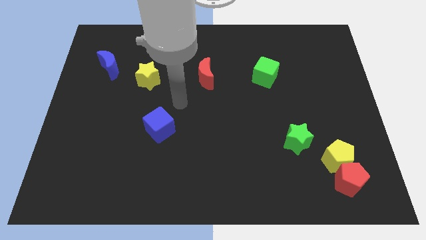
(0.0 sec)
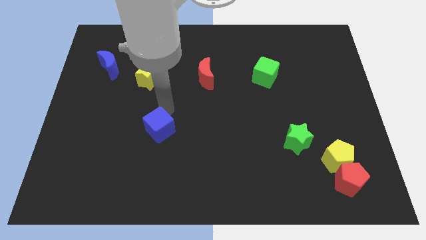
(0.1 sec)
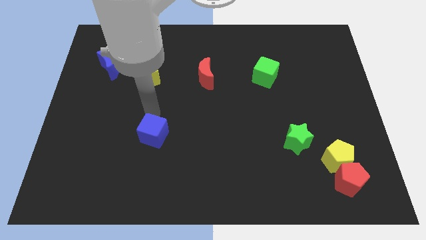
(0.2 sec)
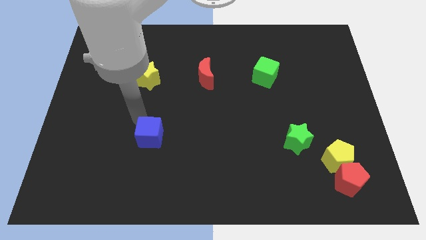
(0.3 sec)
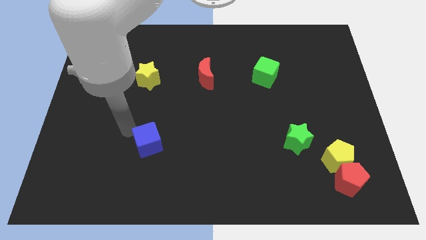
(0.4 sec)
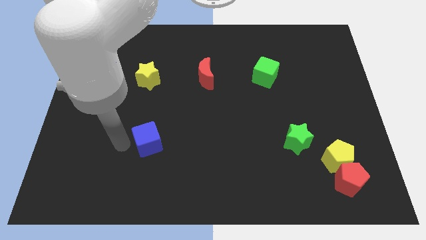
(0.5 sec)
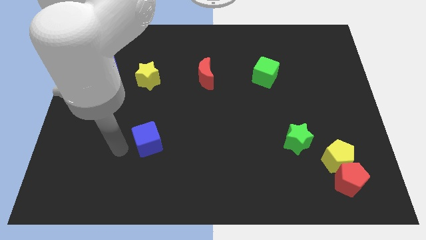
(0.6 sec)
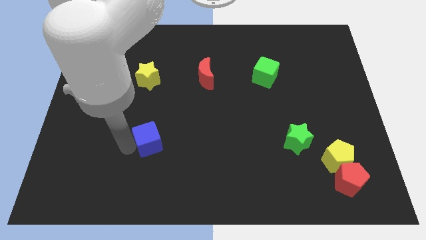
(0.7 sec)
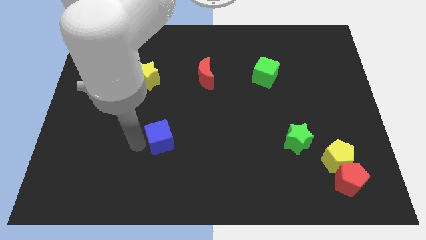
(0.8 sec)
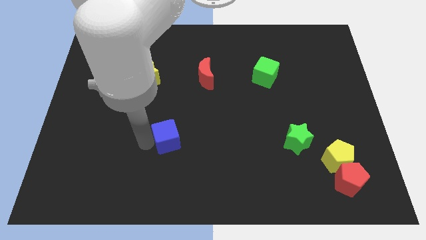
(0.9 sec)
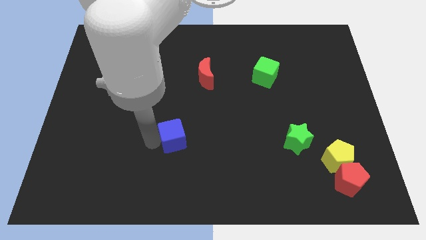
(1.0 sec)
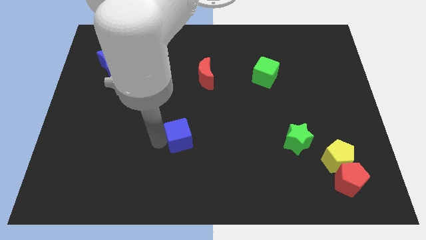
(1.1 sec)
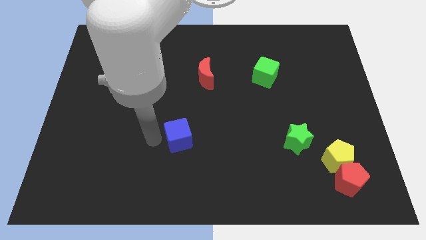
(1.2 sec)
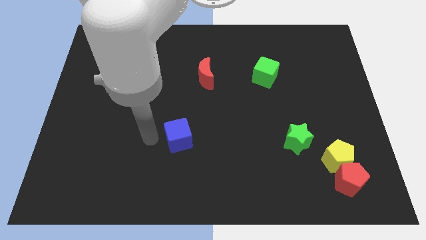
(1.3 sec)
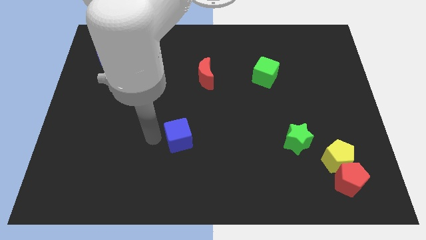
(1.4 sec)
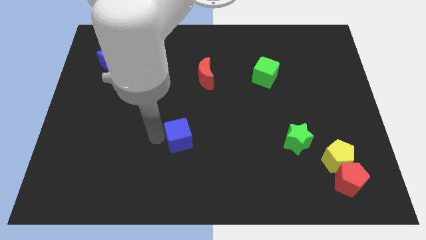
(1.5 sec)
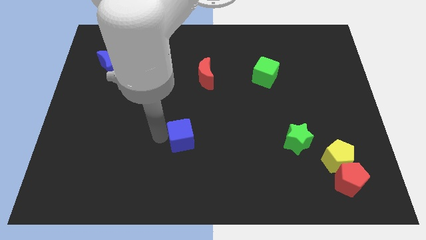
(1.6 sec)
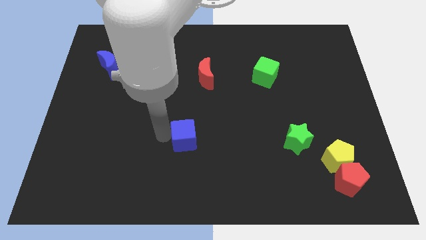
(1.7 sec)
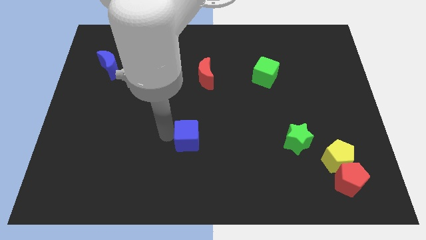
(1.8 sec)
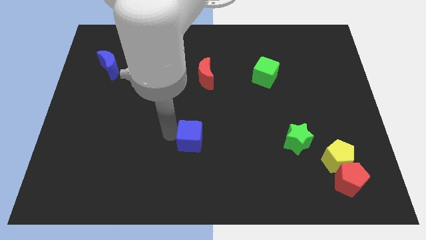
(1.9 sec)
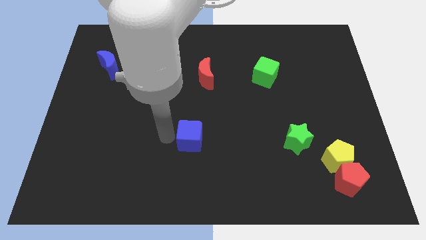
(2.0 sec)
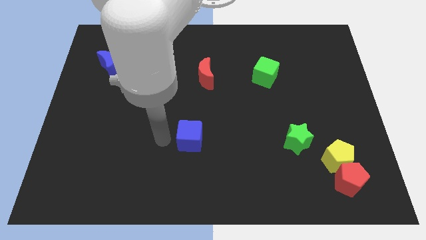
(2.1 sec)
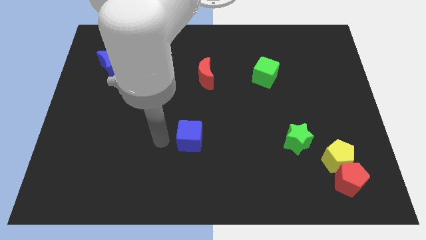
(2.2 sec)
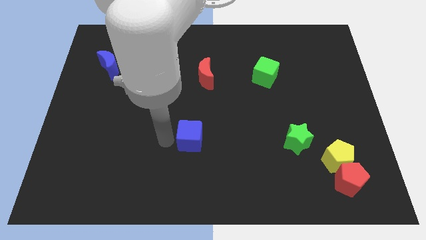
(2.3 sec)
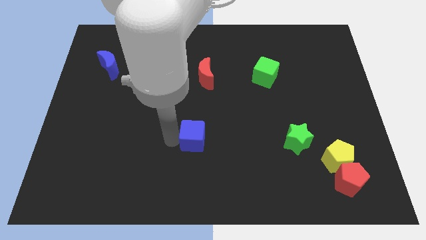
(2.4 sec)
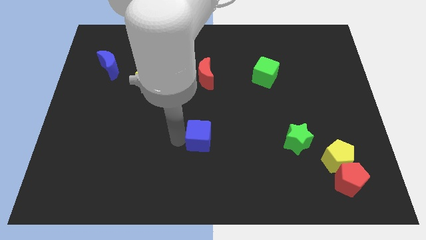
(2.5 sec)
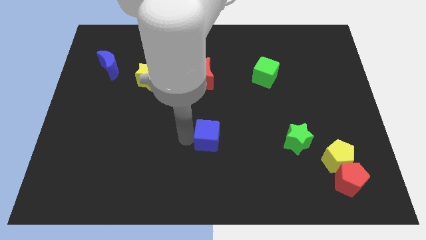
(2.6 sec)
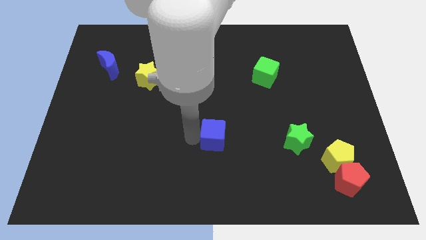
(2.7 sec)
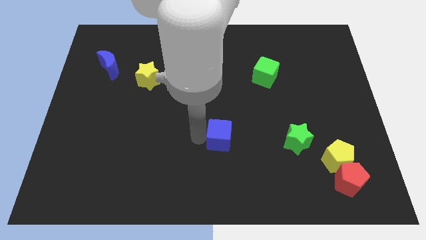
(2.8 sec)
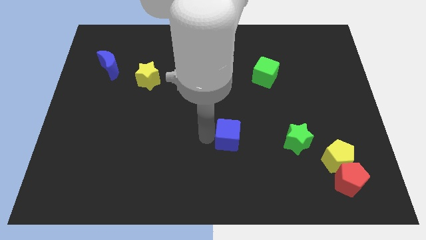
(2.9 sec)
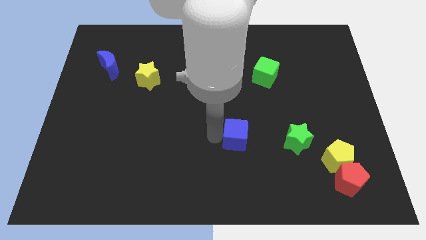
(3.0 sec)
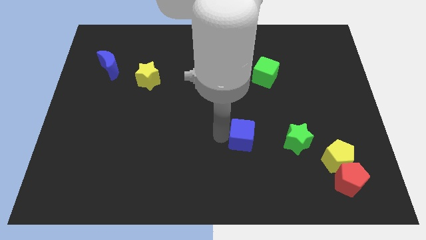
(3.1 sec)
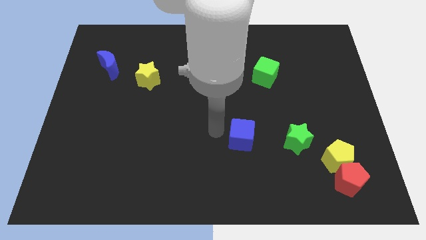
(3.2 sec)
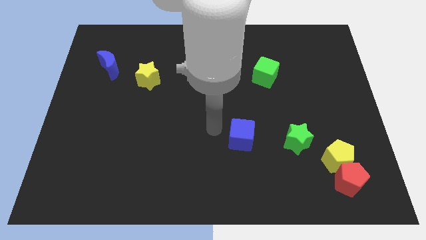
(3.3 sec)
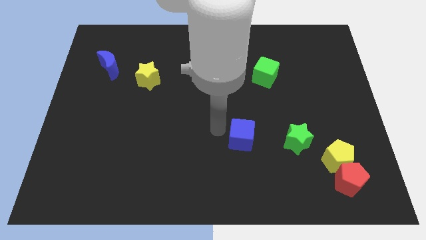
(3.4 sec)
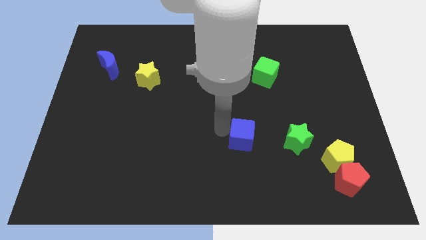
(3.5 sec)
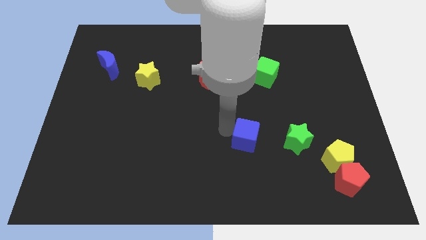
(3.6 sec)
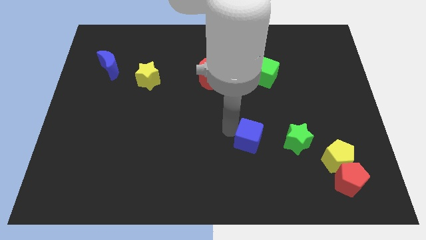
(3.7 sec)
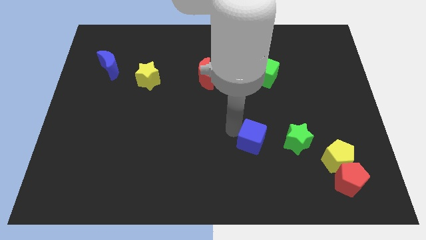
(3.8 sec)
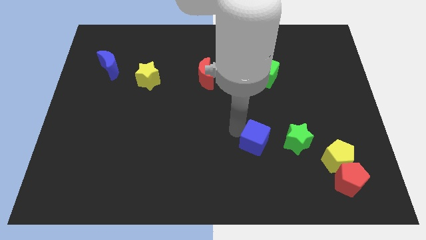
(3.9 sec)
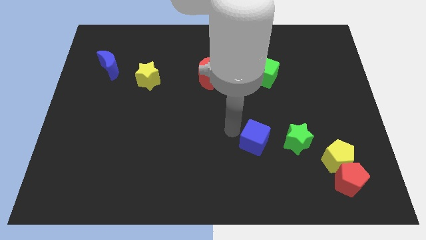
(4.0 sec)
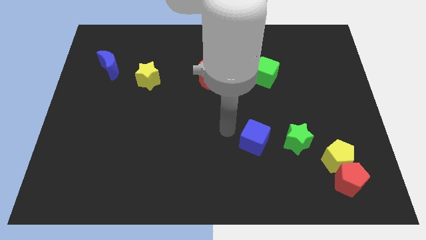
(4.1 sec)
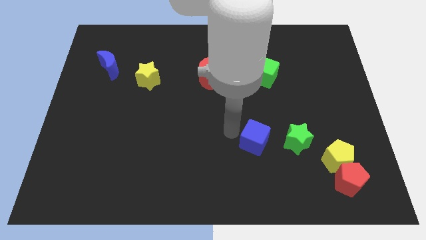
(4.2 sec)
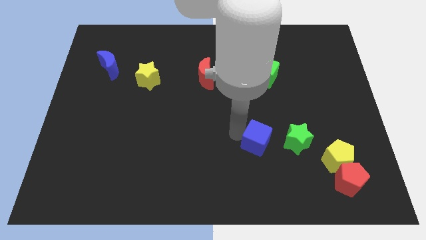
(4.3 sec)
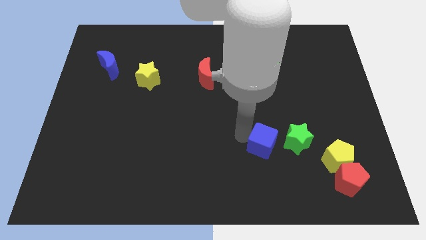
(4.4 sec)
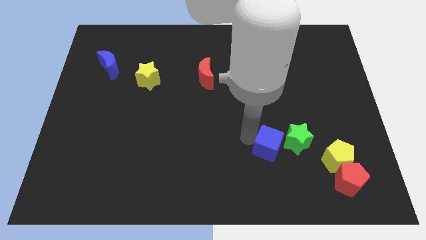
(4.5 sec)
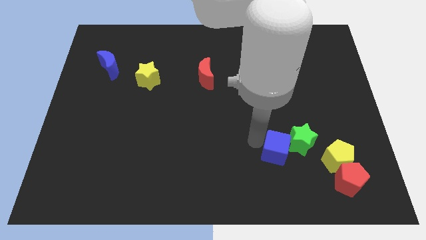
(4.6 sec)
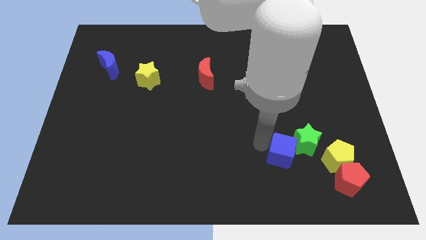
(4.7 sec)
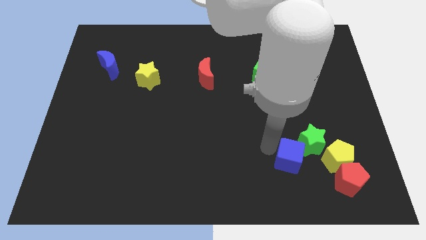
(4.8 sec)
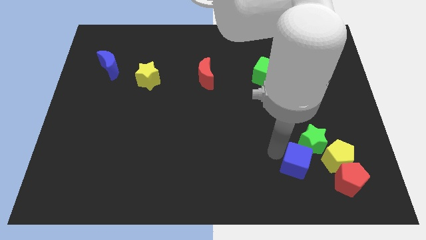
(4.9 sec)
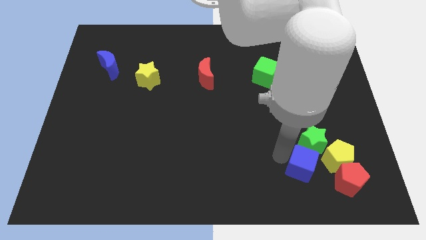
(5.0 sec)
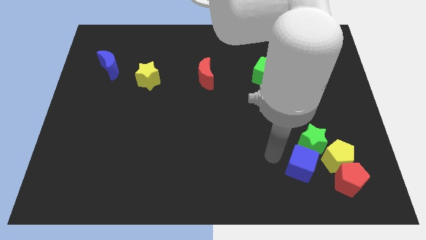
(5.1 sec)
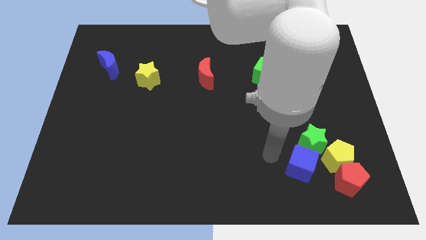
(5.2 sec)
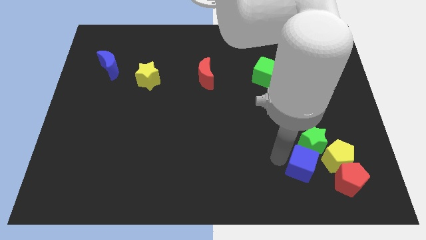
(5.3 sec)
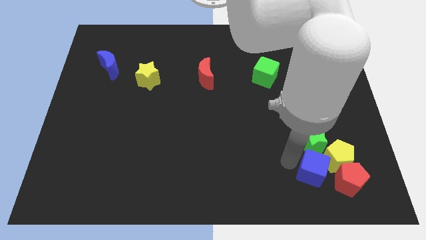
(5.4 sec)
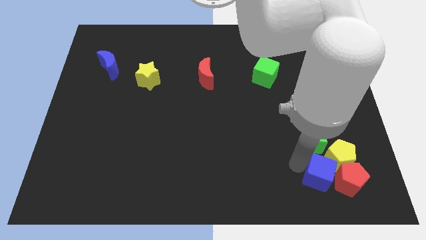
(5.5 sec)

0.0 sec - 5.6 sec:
move the blue cube close to the red pentagon

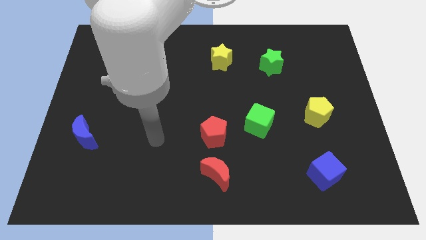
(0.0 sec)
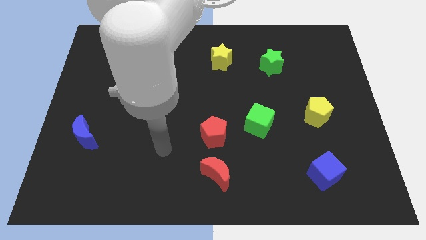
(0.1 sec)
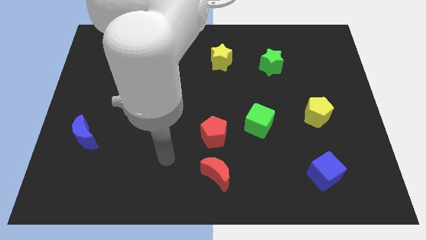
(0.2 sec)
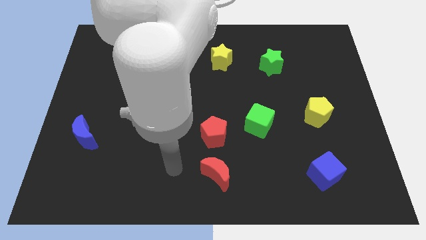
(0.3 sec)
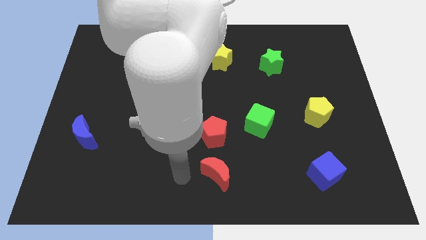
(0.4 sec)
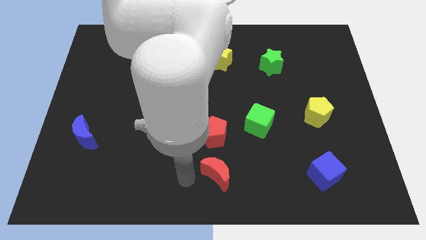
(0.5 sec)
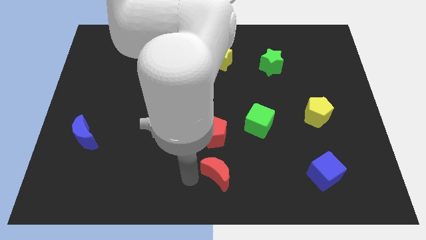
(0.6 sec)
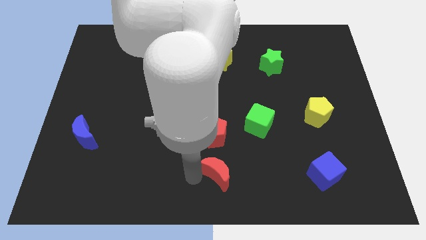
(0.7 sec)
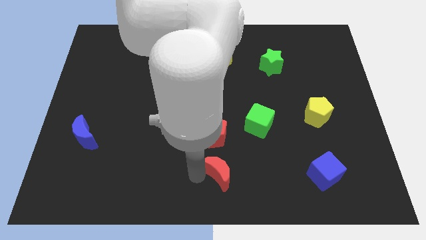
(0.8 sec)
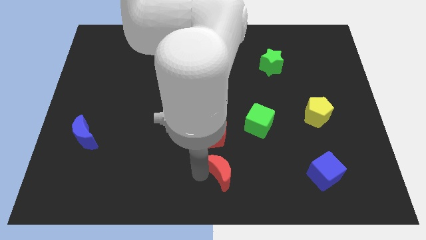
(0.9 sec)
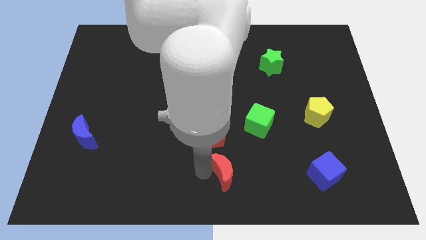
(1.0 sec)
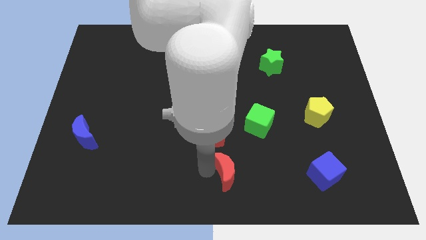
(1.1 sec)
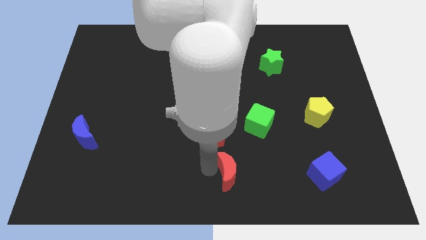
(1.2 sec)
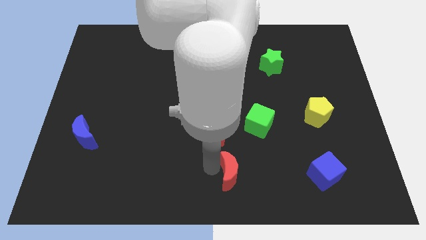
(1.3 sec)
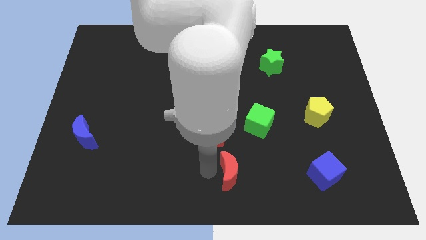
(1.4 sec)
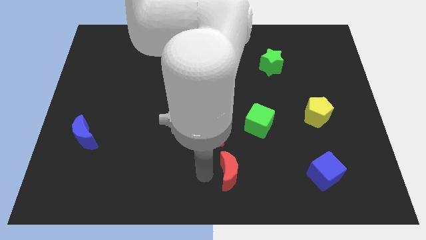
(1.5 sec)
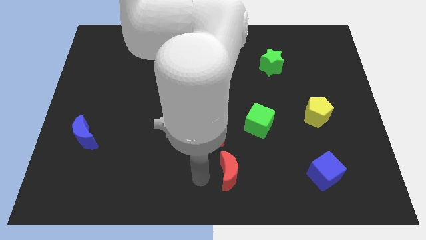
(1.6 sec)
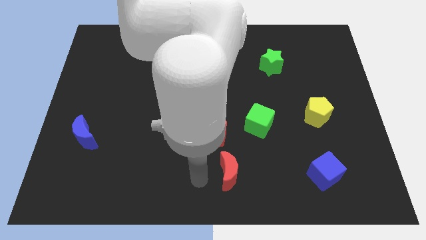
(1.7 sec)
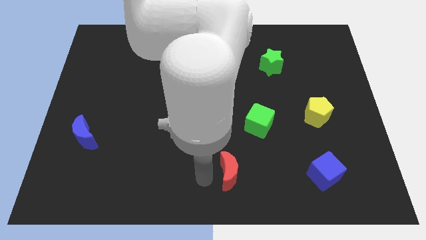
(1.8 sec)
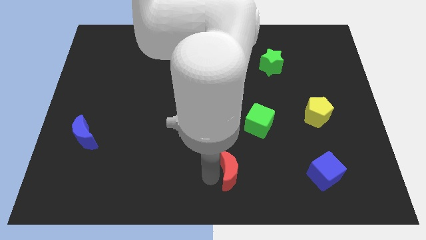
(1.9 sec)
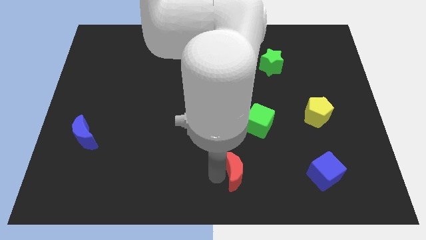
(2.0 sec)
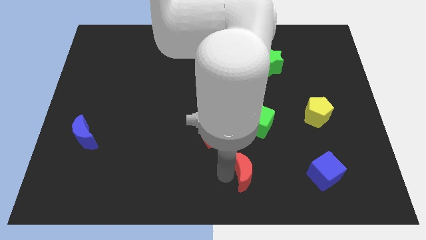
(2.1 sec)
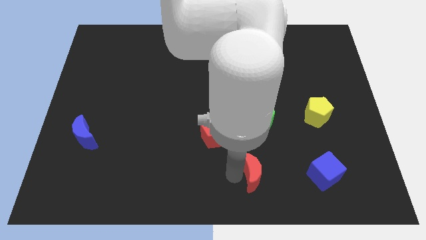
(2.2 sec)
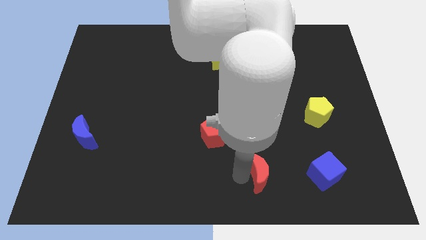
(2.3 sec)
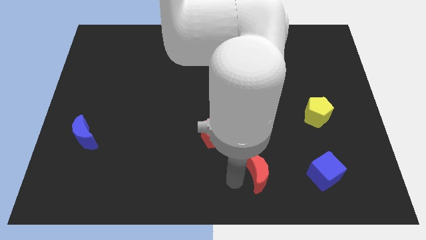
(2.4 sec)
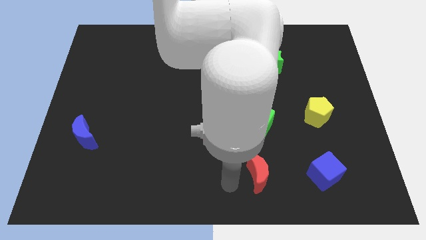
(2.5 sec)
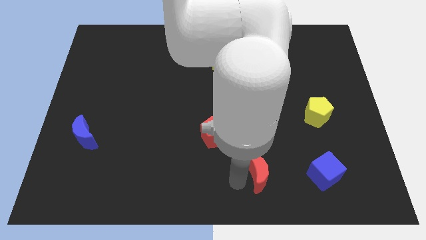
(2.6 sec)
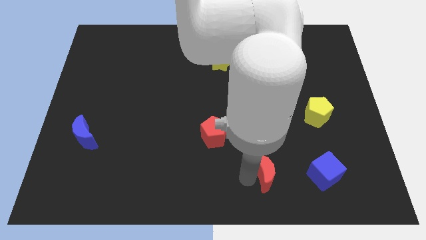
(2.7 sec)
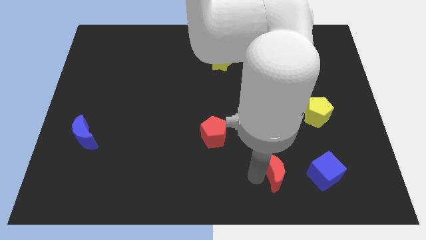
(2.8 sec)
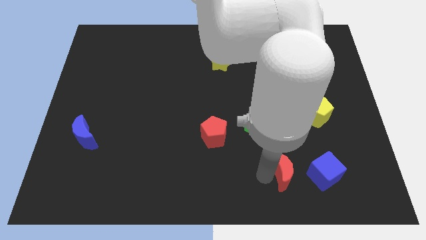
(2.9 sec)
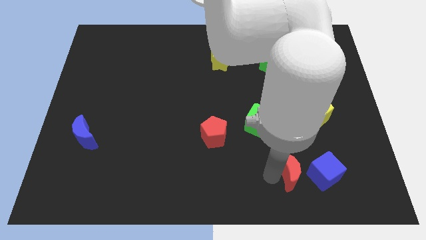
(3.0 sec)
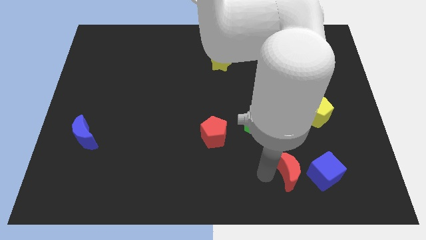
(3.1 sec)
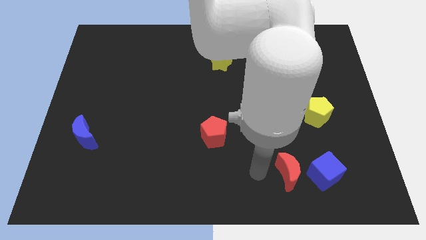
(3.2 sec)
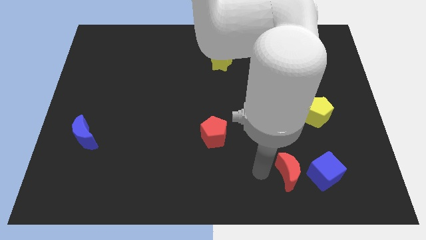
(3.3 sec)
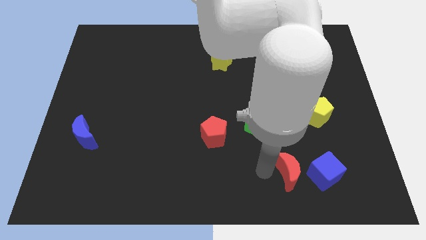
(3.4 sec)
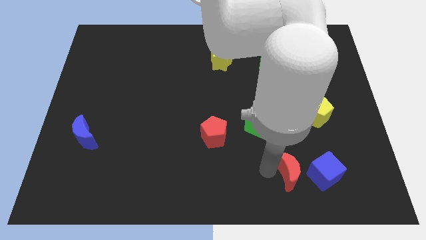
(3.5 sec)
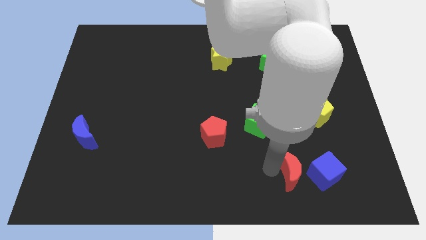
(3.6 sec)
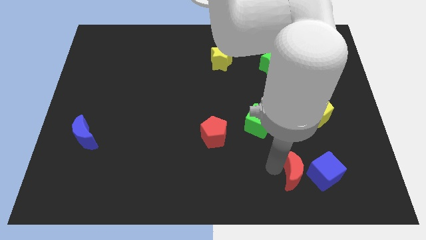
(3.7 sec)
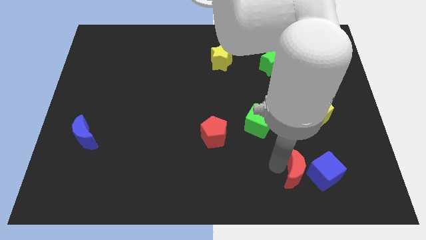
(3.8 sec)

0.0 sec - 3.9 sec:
push the red moon close to the blue cube
